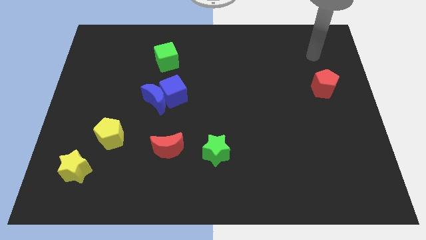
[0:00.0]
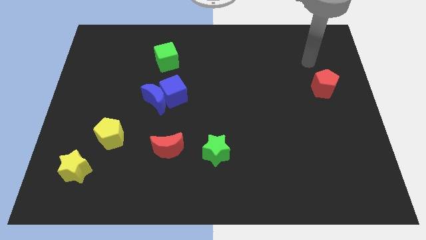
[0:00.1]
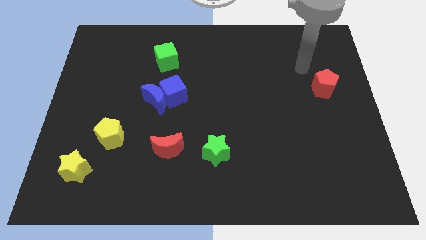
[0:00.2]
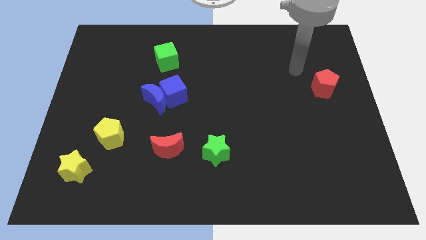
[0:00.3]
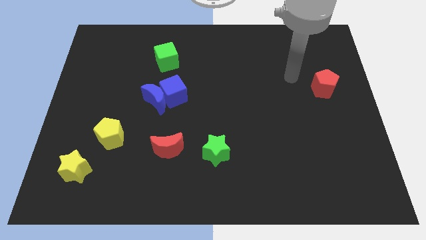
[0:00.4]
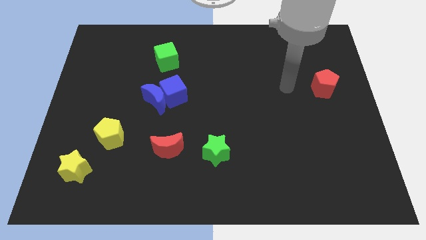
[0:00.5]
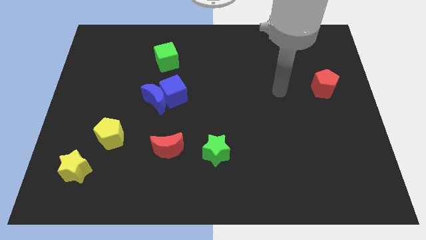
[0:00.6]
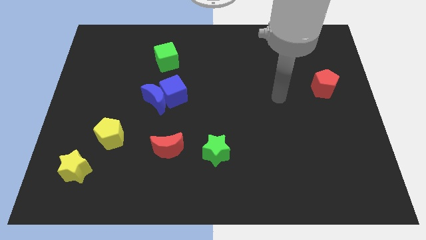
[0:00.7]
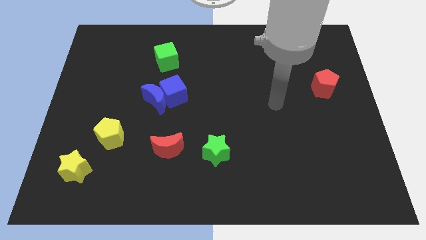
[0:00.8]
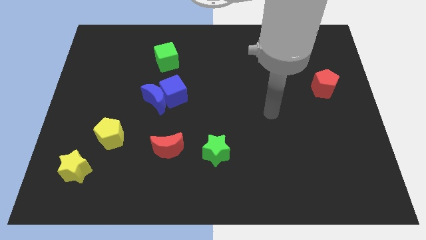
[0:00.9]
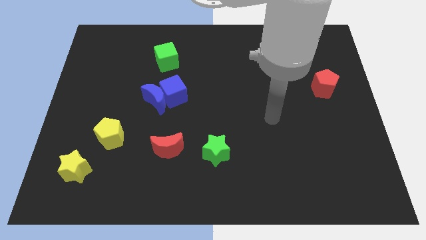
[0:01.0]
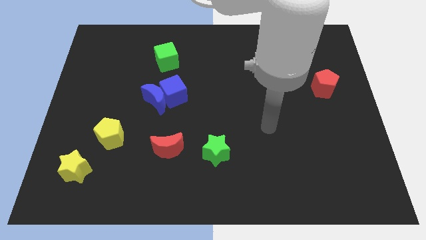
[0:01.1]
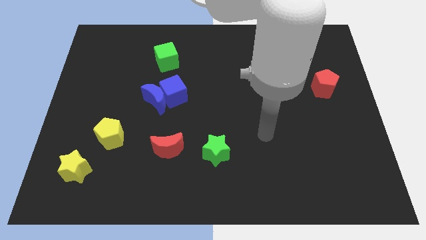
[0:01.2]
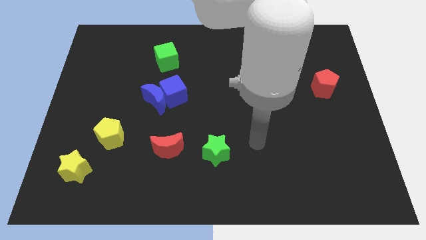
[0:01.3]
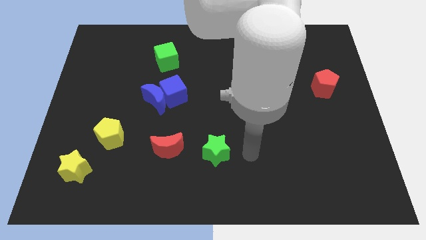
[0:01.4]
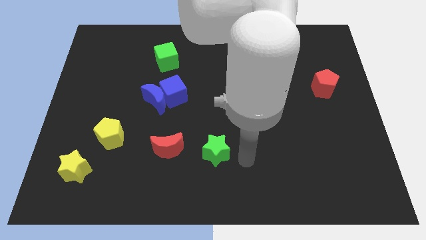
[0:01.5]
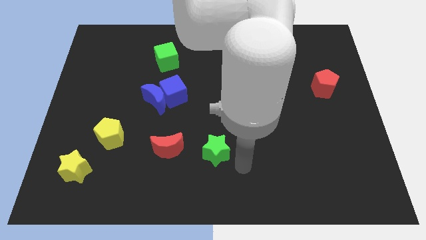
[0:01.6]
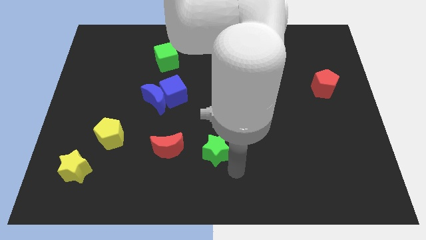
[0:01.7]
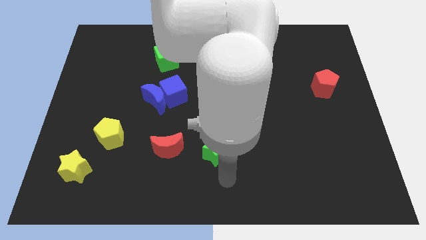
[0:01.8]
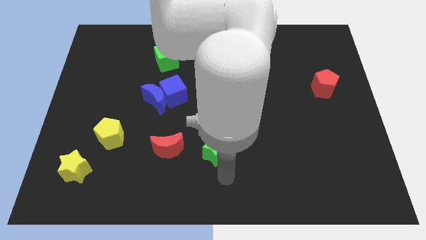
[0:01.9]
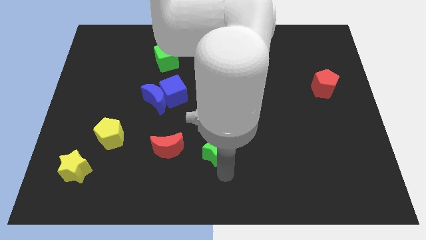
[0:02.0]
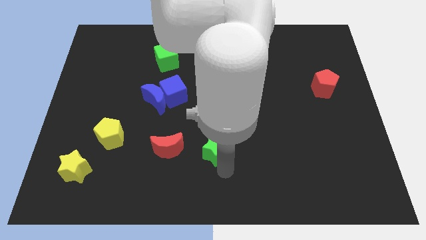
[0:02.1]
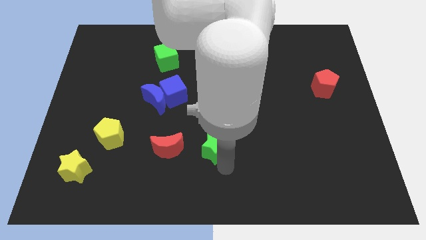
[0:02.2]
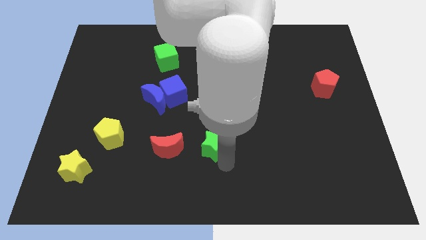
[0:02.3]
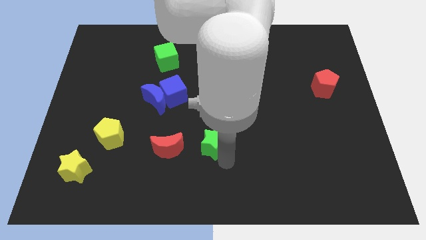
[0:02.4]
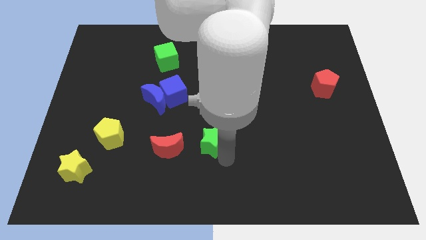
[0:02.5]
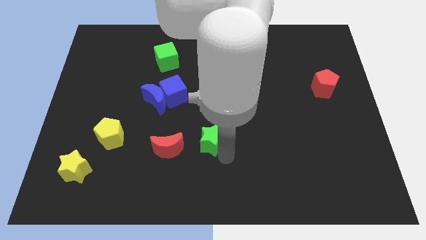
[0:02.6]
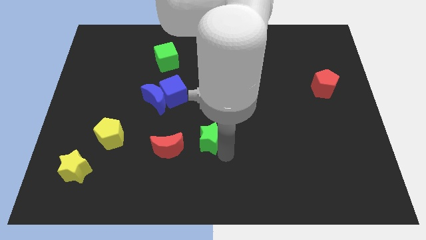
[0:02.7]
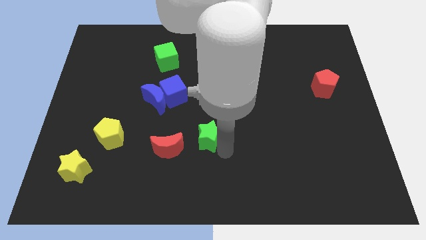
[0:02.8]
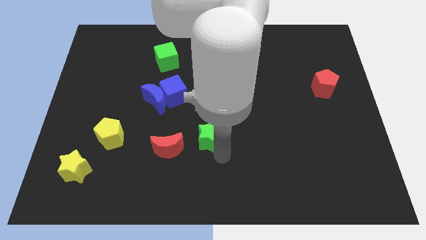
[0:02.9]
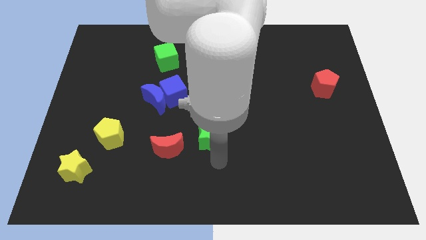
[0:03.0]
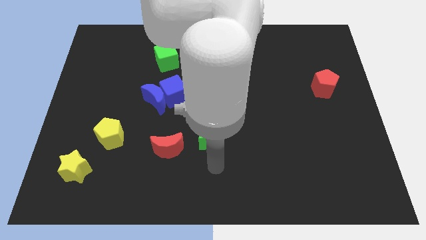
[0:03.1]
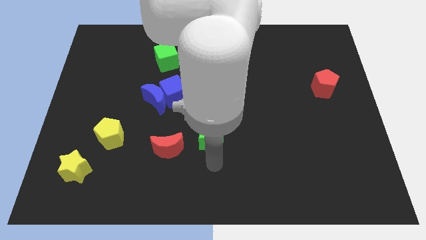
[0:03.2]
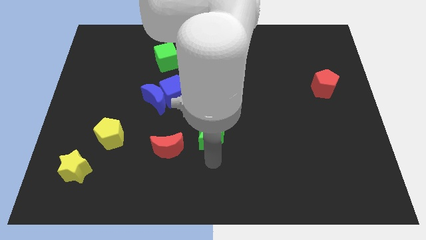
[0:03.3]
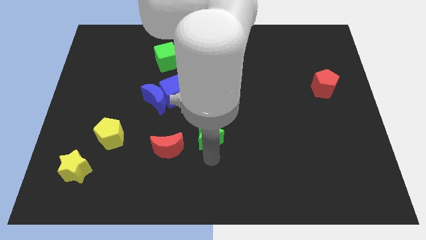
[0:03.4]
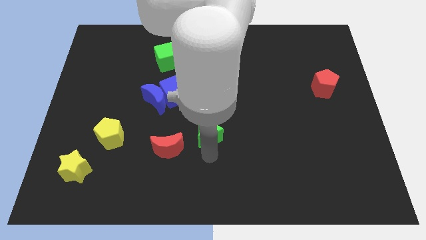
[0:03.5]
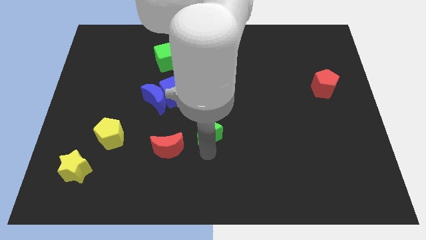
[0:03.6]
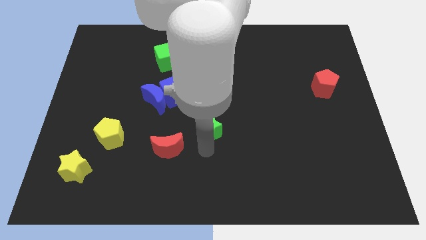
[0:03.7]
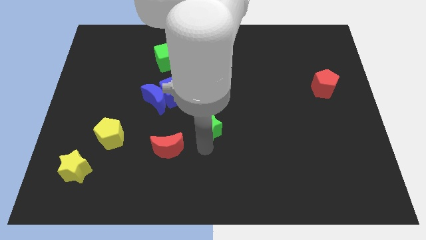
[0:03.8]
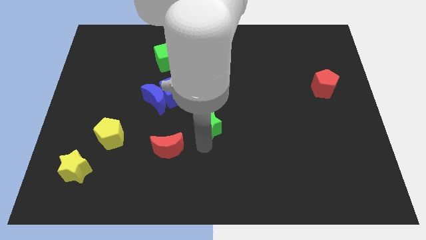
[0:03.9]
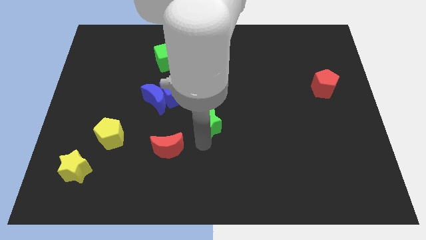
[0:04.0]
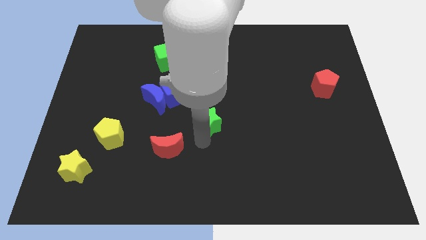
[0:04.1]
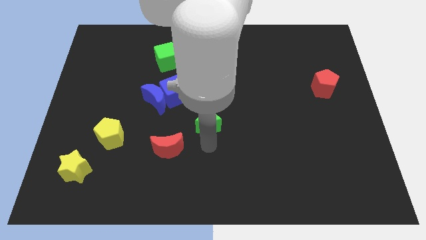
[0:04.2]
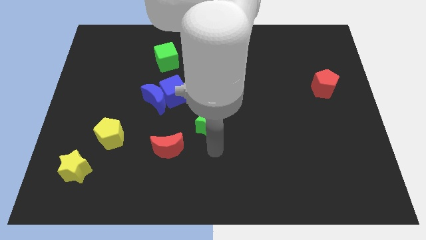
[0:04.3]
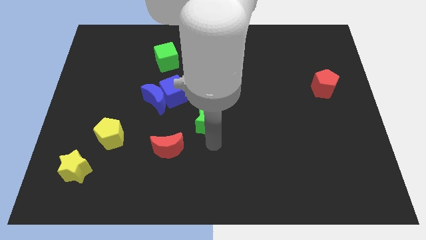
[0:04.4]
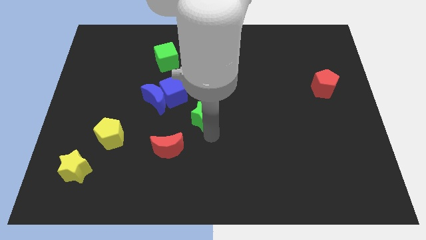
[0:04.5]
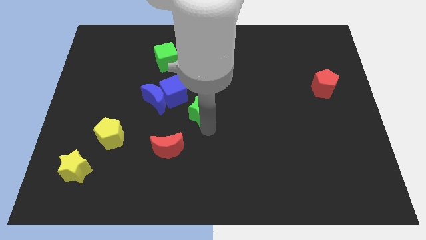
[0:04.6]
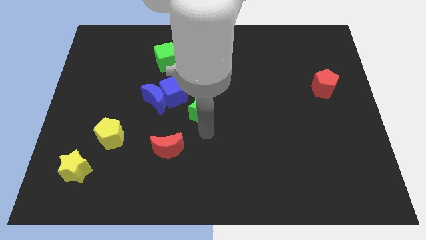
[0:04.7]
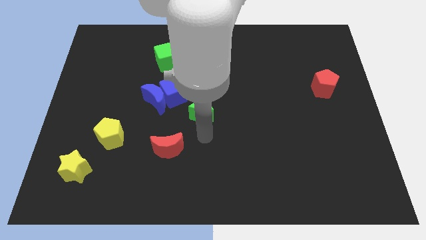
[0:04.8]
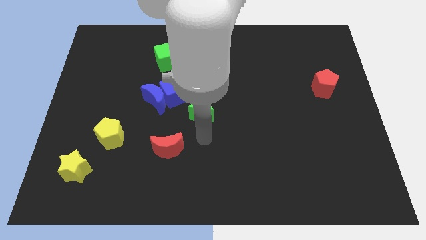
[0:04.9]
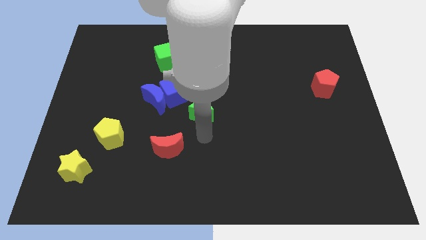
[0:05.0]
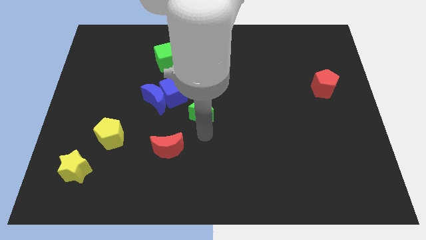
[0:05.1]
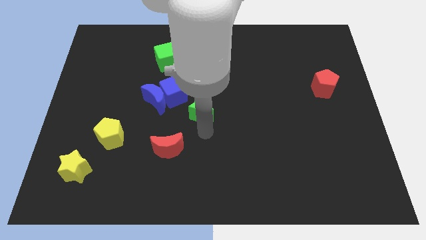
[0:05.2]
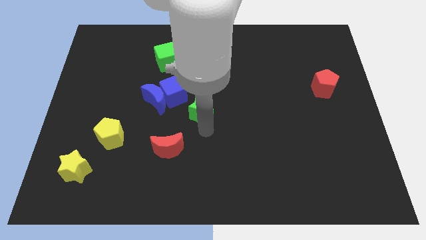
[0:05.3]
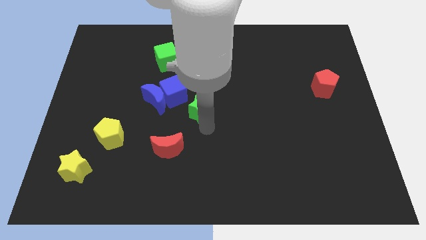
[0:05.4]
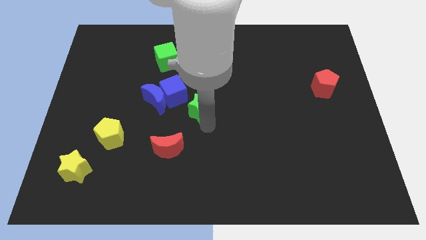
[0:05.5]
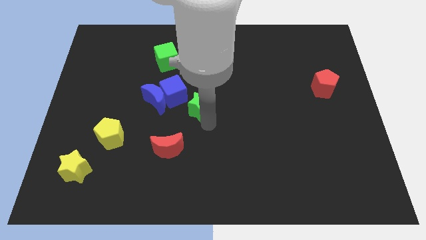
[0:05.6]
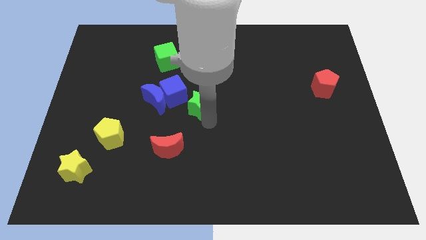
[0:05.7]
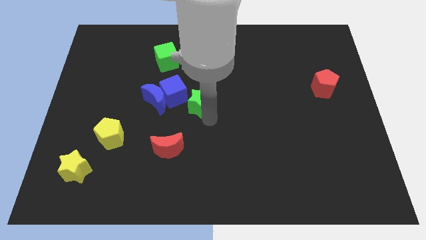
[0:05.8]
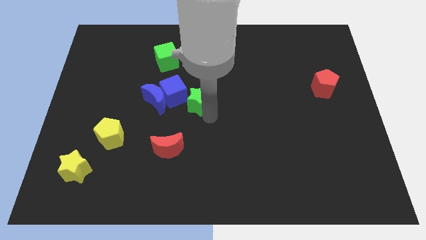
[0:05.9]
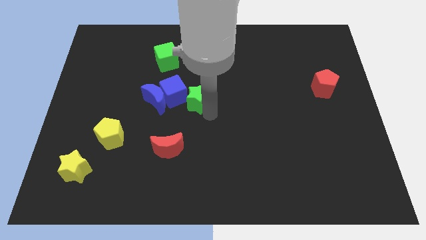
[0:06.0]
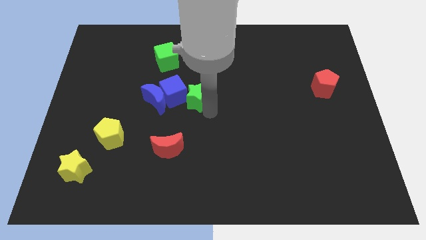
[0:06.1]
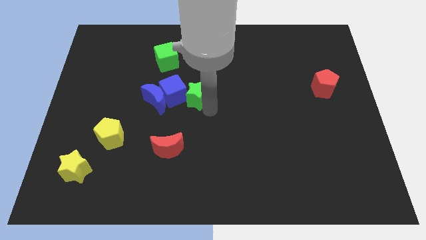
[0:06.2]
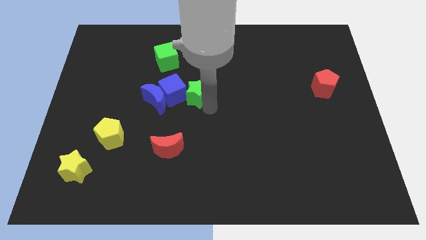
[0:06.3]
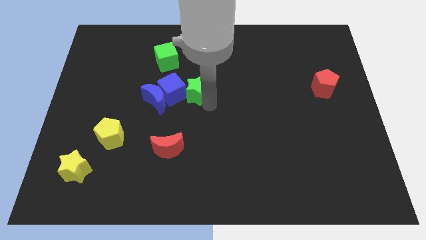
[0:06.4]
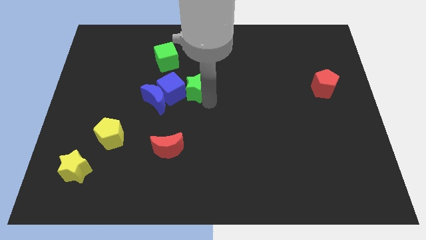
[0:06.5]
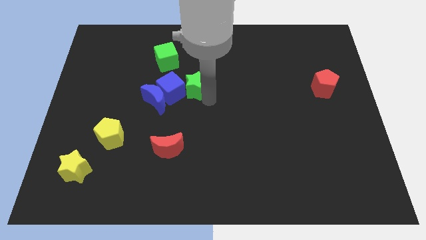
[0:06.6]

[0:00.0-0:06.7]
move the green star diagonally down and to the right of the green cube
